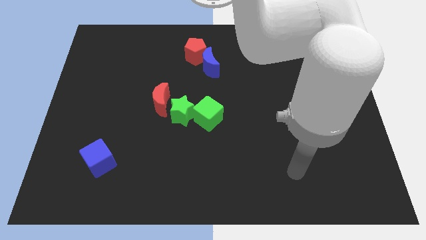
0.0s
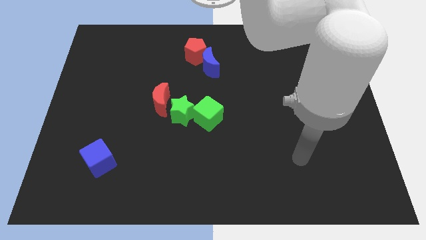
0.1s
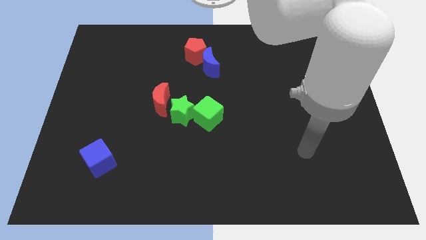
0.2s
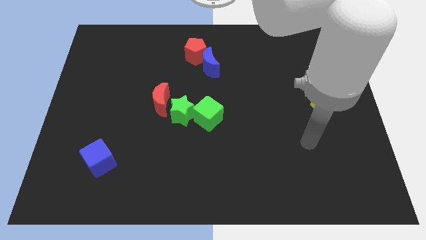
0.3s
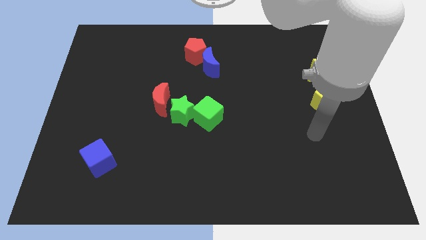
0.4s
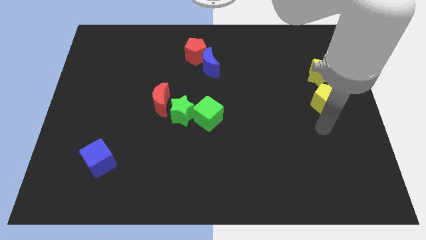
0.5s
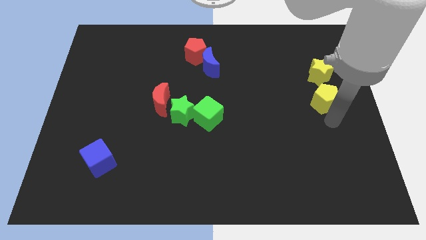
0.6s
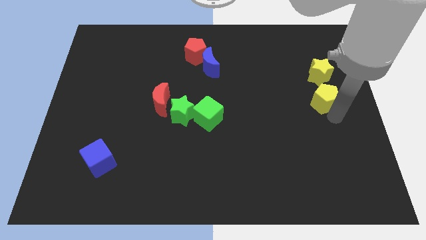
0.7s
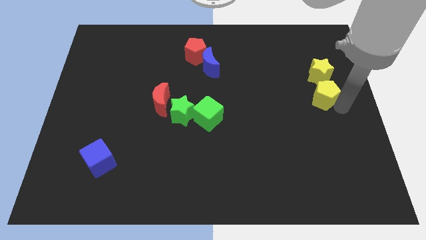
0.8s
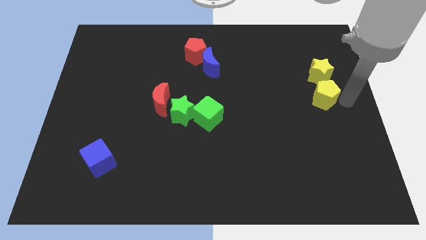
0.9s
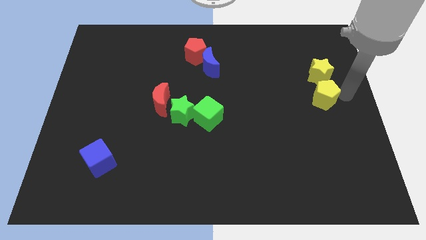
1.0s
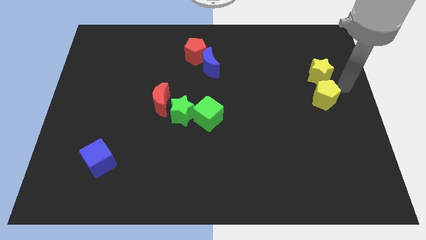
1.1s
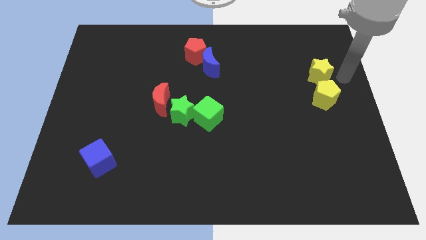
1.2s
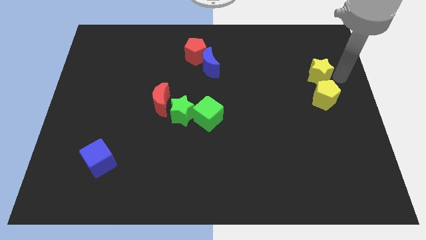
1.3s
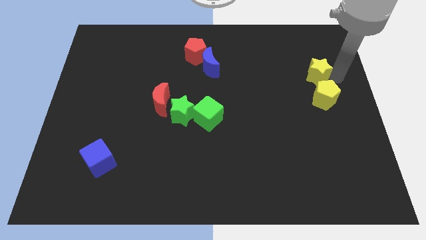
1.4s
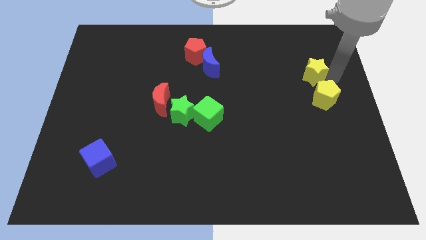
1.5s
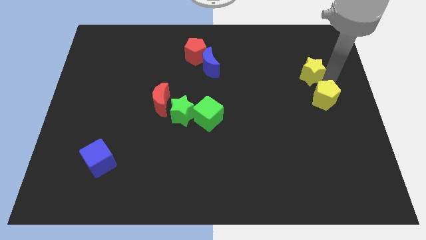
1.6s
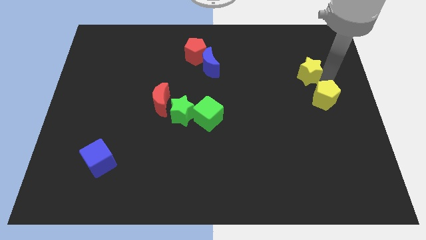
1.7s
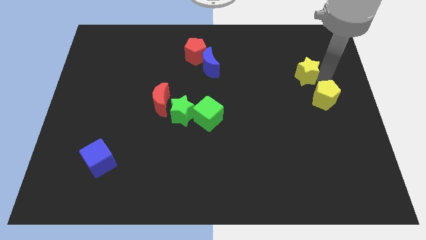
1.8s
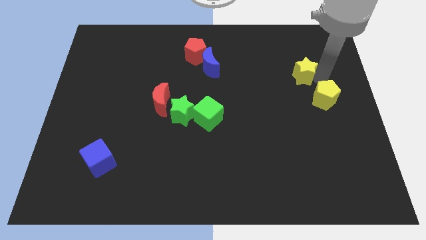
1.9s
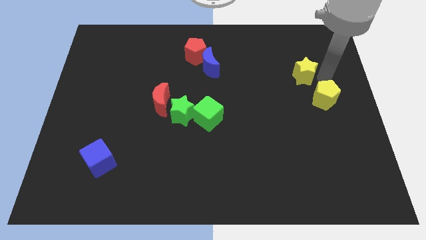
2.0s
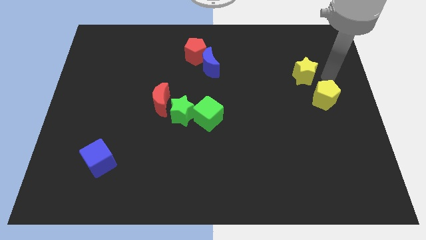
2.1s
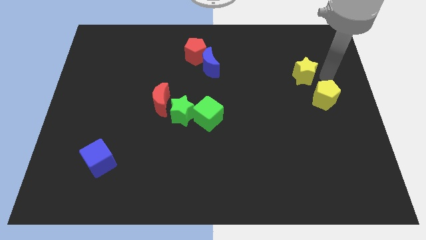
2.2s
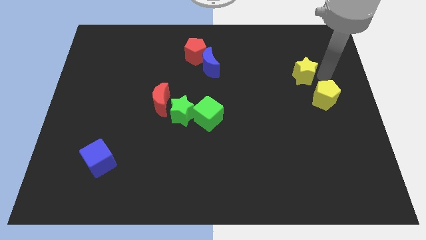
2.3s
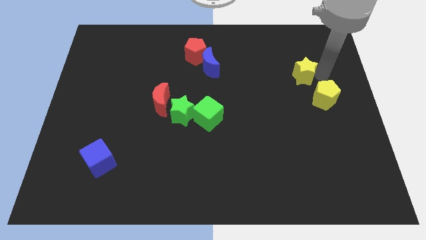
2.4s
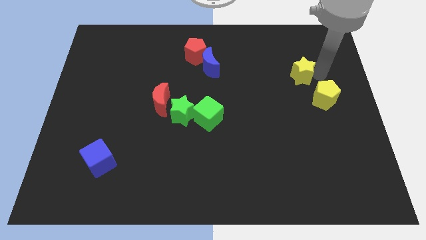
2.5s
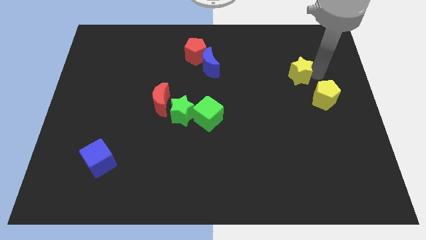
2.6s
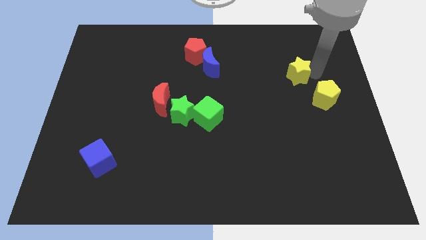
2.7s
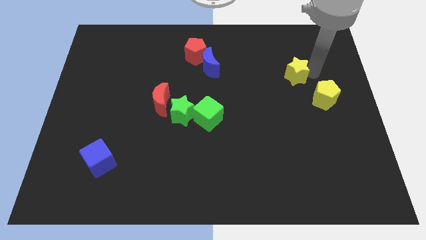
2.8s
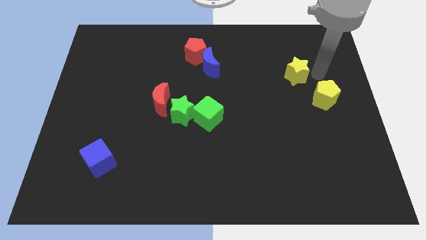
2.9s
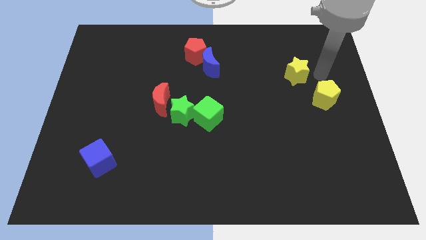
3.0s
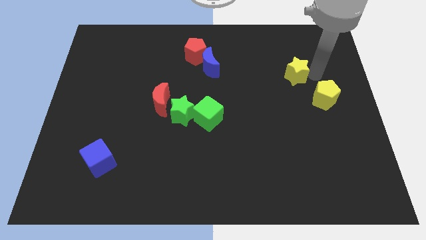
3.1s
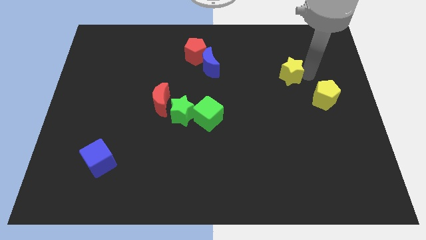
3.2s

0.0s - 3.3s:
slightly move the yellow star to the left

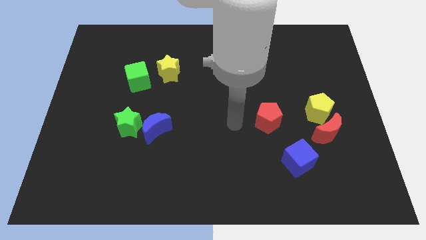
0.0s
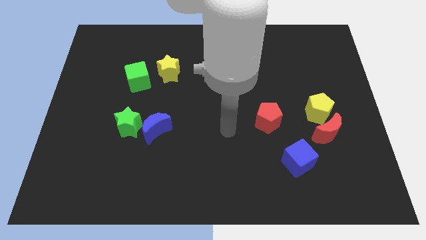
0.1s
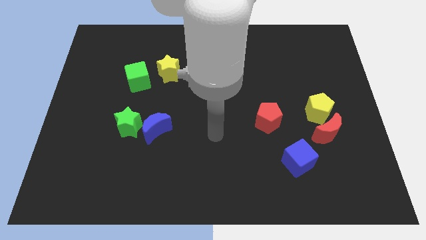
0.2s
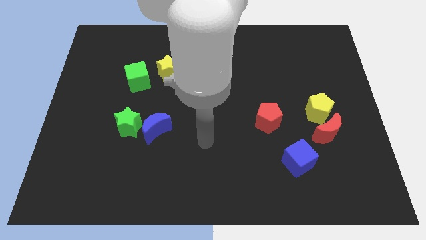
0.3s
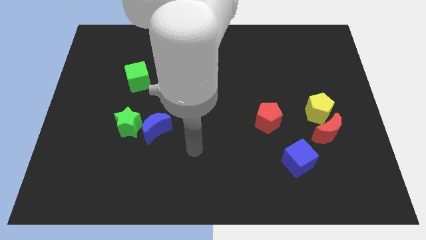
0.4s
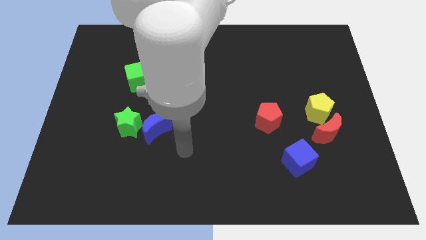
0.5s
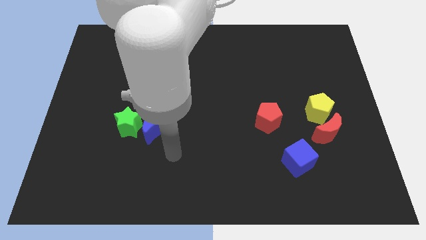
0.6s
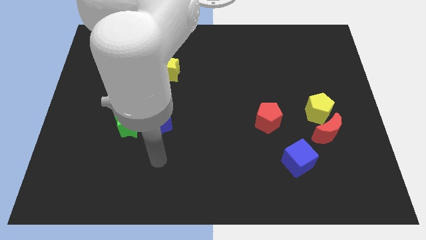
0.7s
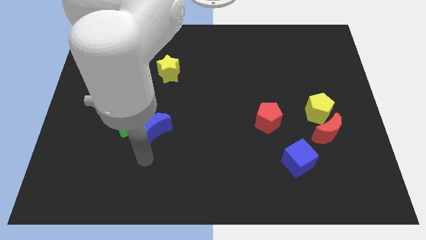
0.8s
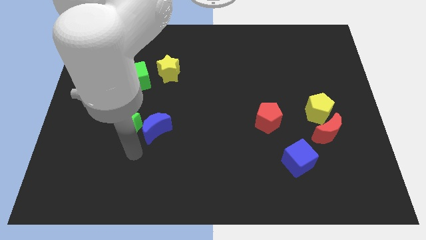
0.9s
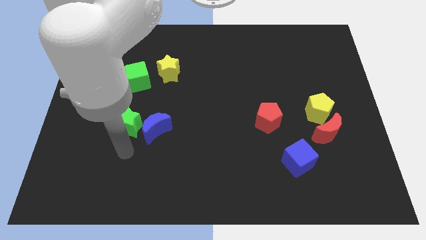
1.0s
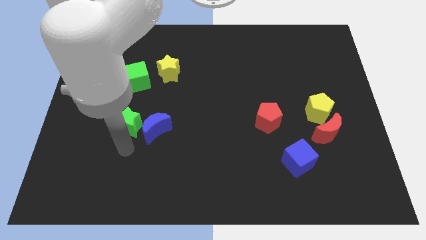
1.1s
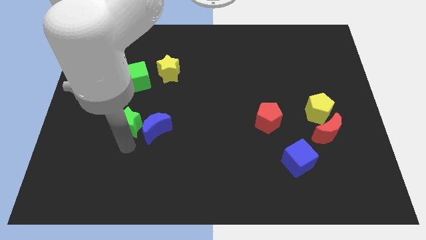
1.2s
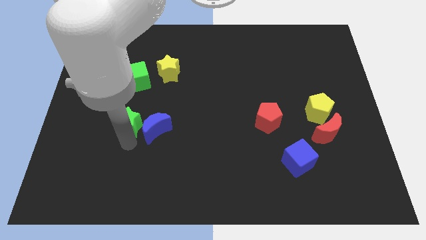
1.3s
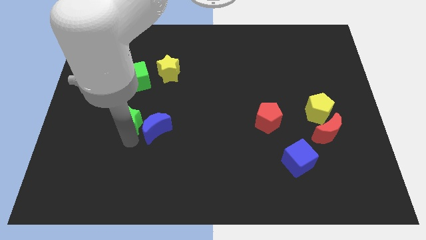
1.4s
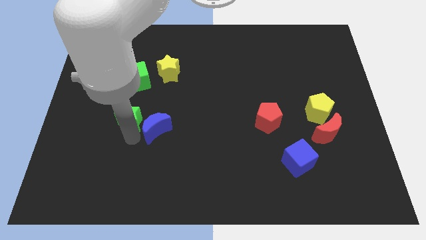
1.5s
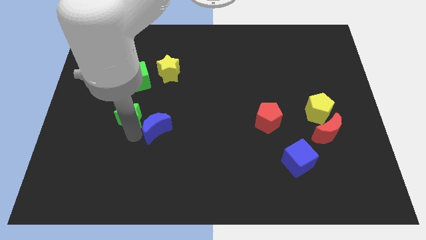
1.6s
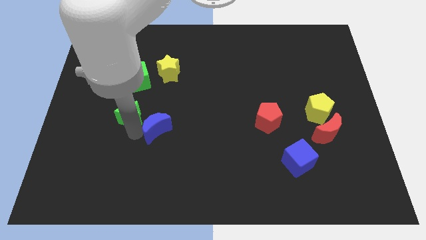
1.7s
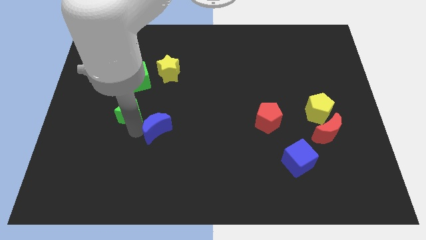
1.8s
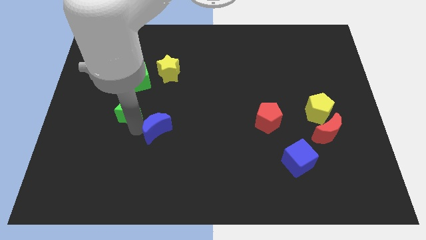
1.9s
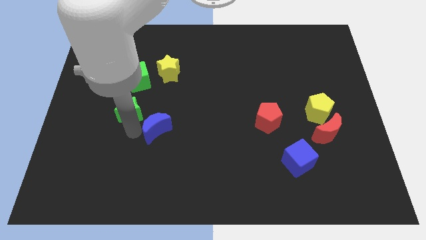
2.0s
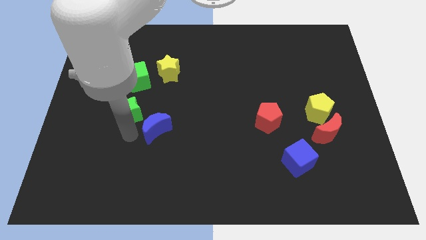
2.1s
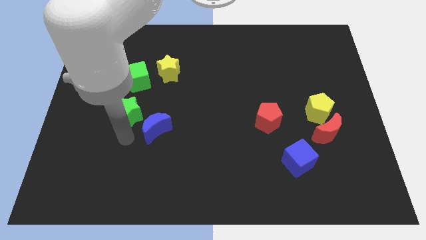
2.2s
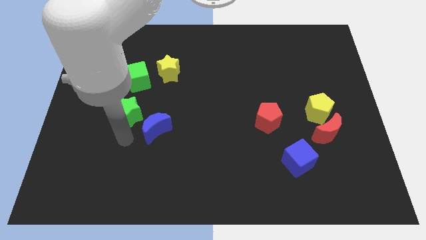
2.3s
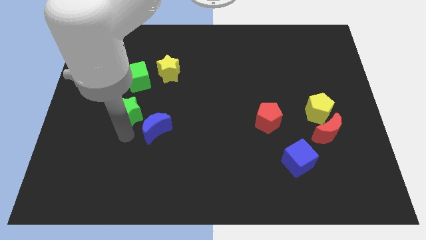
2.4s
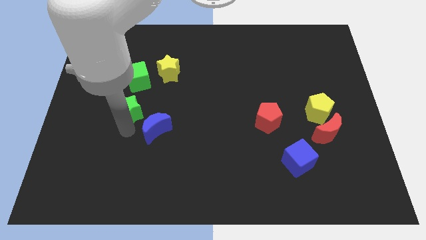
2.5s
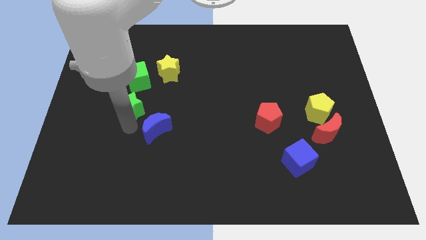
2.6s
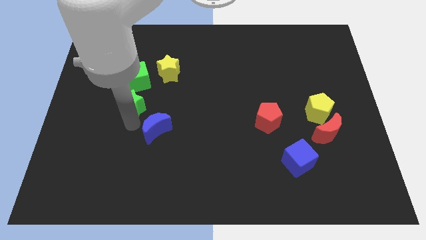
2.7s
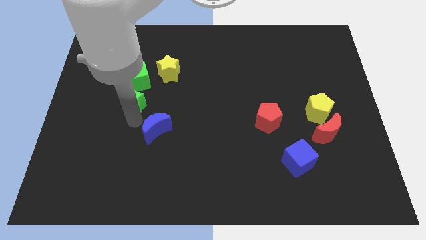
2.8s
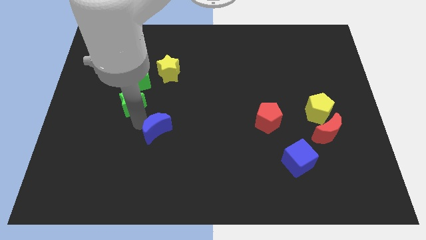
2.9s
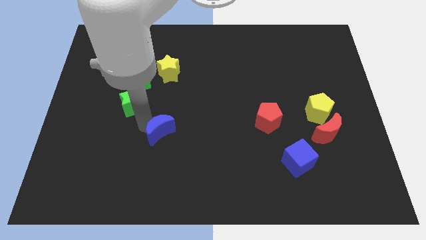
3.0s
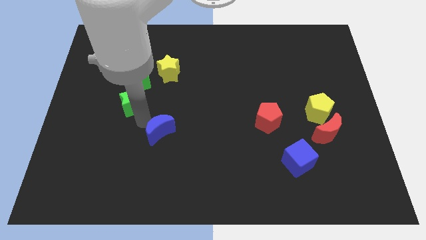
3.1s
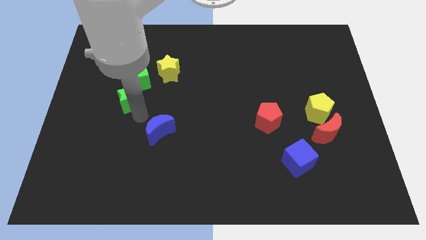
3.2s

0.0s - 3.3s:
slide the green star upwards a little bit

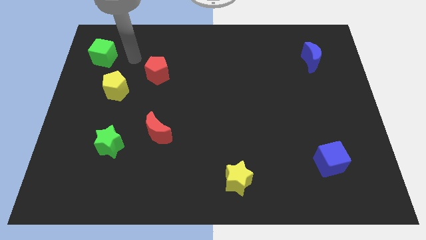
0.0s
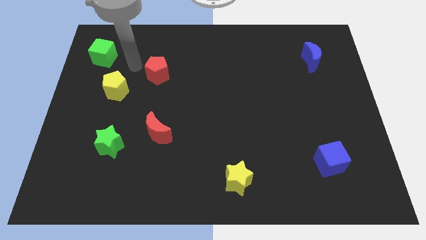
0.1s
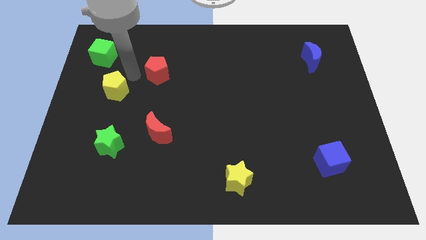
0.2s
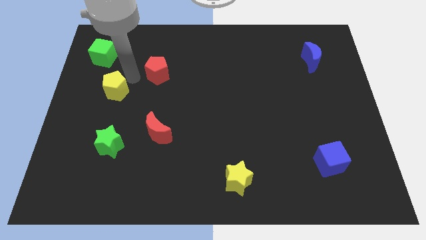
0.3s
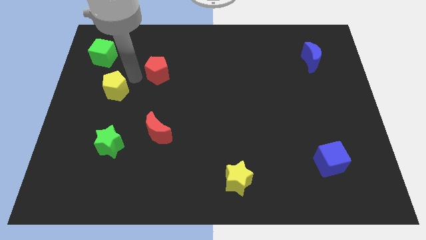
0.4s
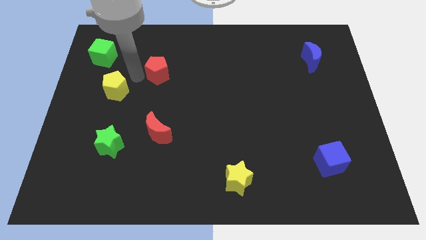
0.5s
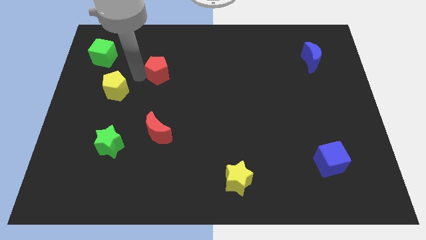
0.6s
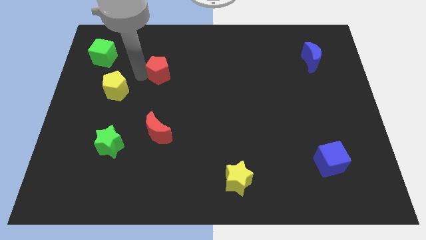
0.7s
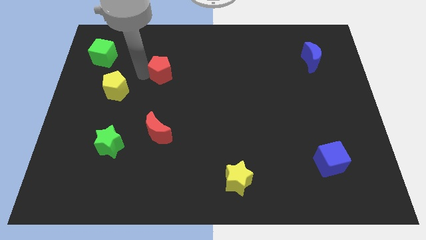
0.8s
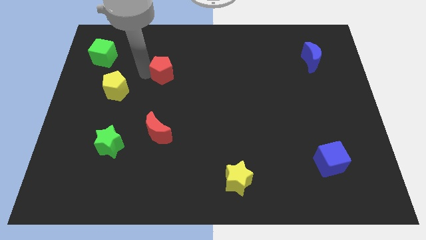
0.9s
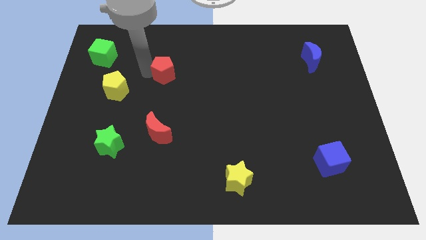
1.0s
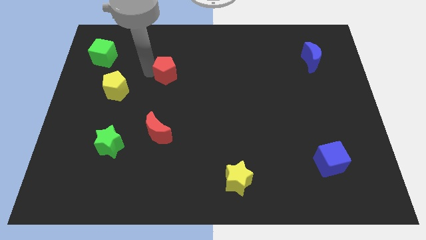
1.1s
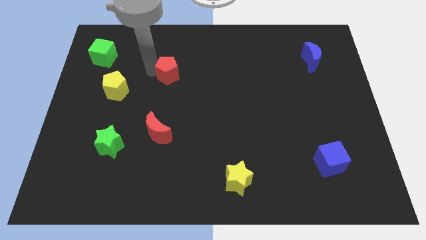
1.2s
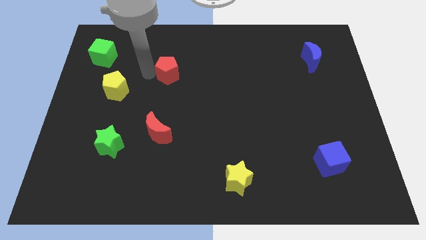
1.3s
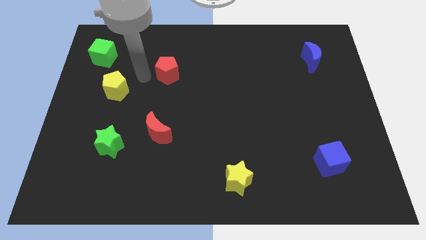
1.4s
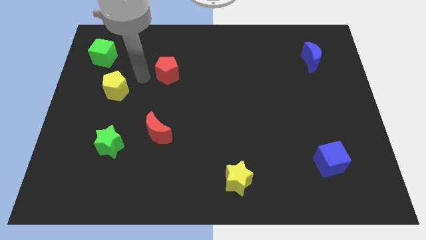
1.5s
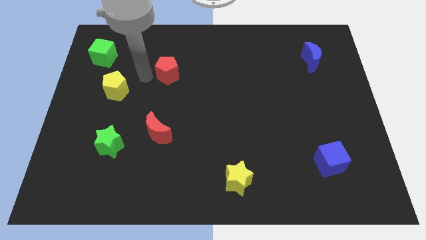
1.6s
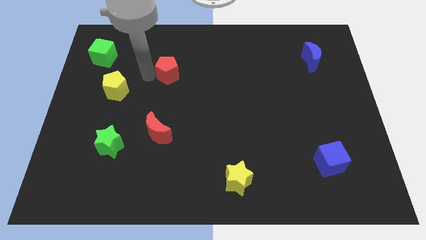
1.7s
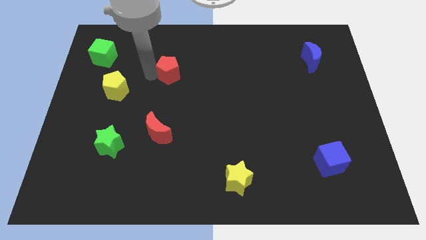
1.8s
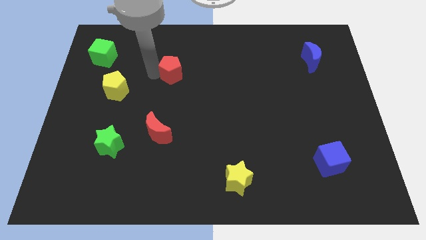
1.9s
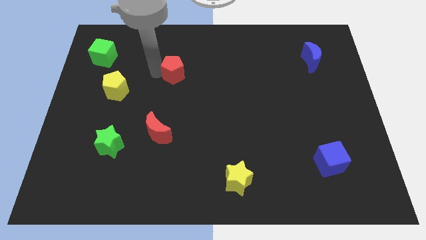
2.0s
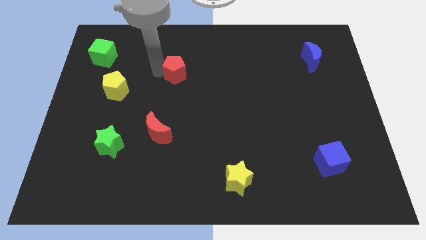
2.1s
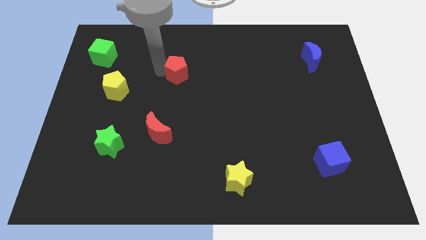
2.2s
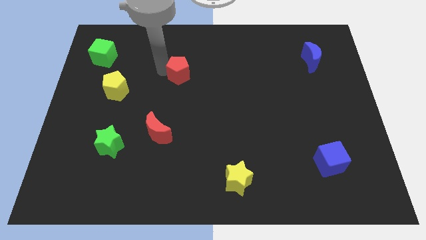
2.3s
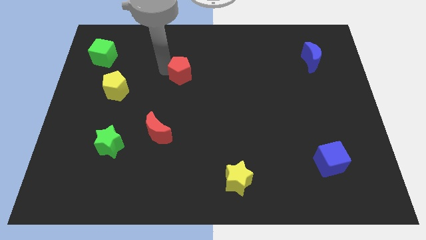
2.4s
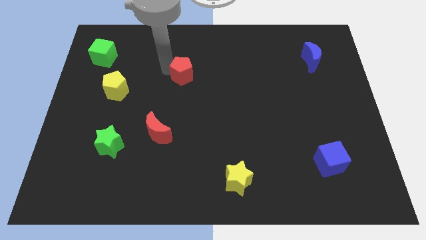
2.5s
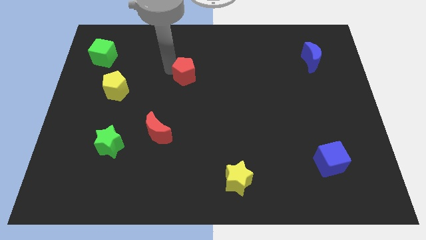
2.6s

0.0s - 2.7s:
slightly move the red pentagon to the right
